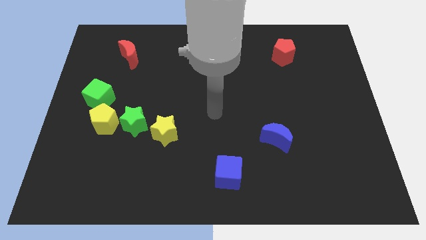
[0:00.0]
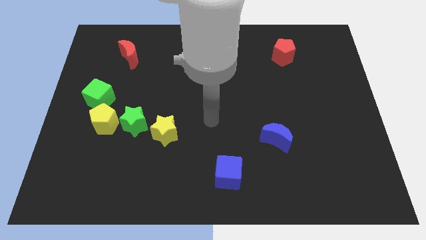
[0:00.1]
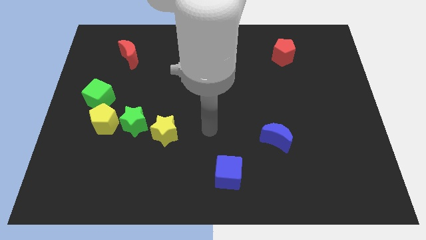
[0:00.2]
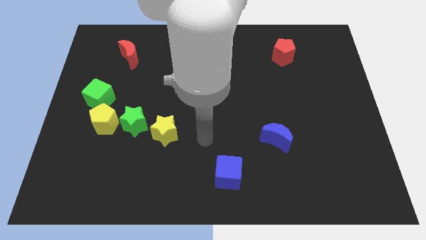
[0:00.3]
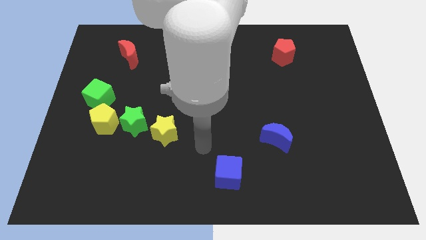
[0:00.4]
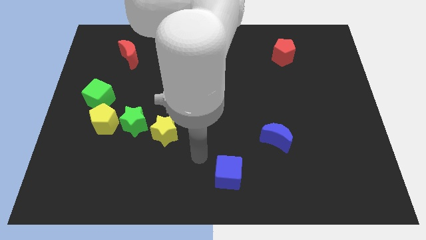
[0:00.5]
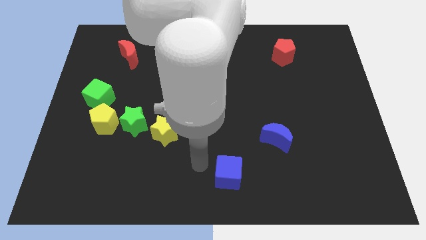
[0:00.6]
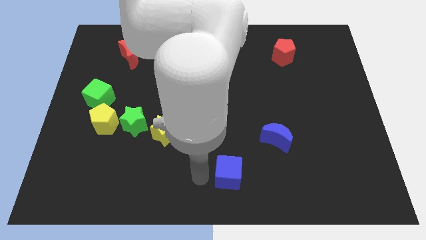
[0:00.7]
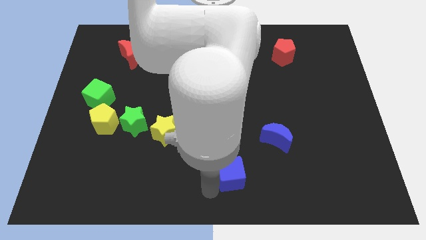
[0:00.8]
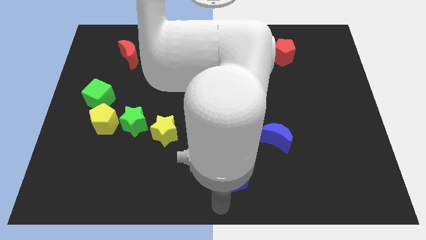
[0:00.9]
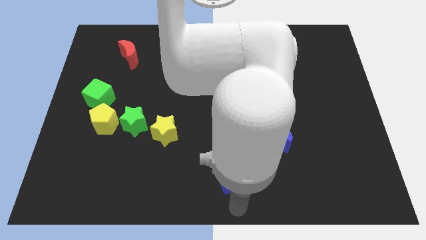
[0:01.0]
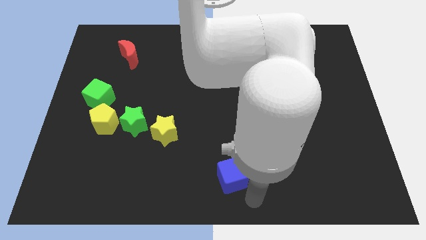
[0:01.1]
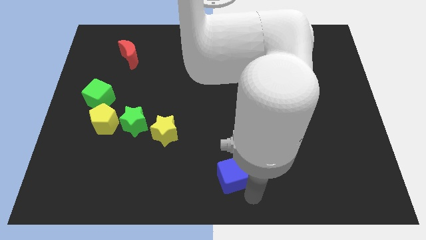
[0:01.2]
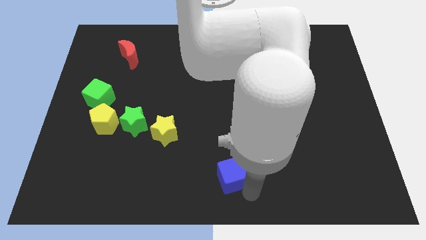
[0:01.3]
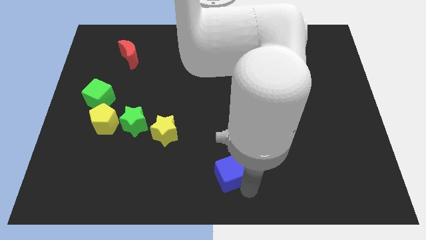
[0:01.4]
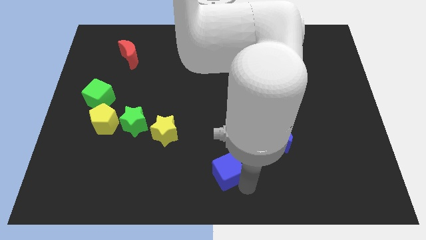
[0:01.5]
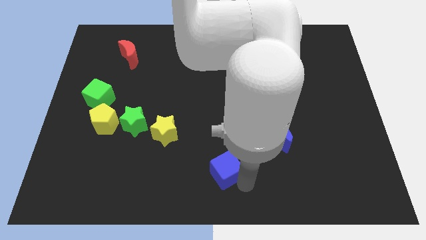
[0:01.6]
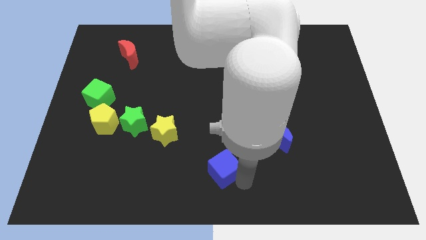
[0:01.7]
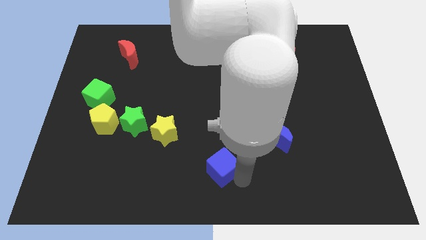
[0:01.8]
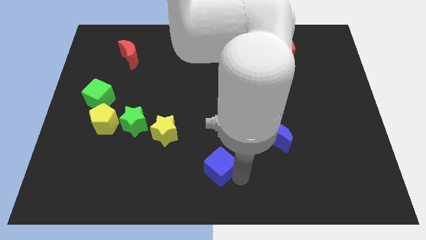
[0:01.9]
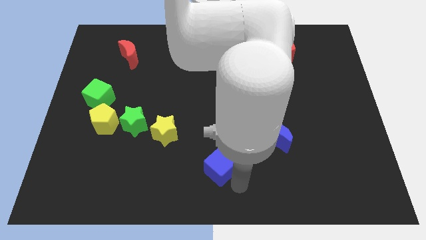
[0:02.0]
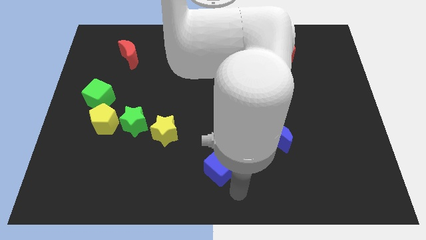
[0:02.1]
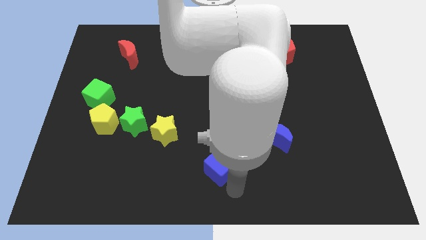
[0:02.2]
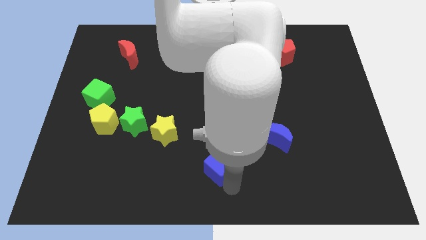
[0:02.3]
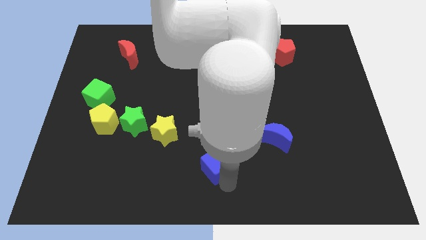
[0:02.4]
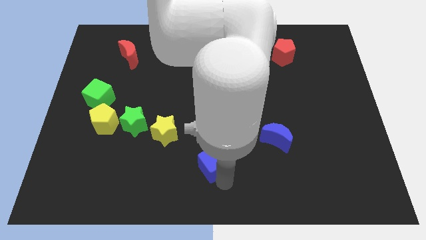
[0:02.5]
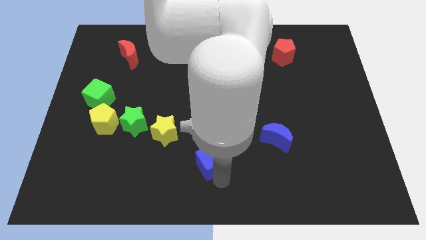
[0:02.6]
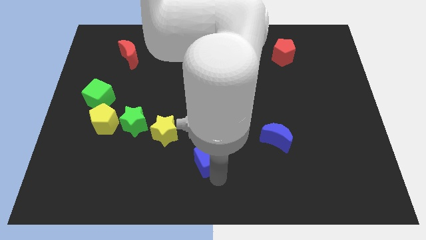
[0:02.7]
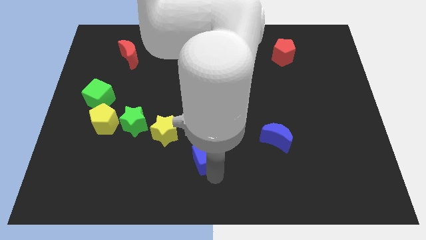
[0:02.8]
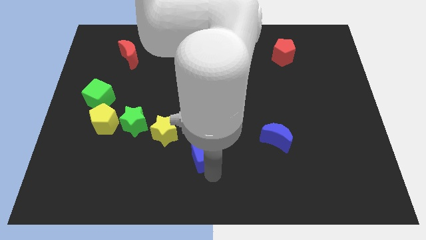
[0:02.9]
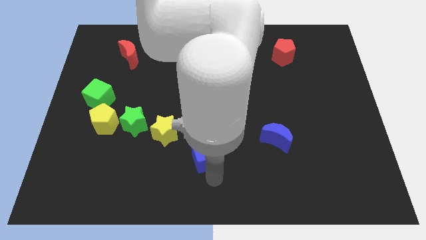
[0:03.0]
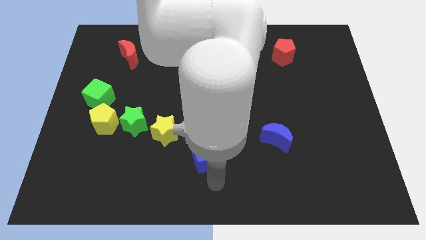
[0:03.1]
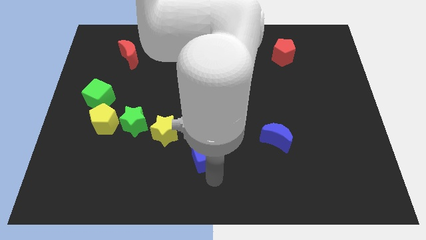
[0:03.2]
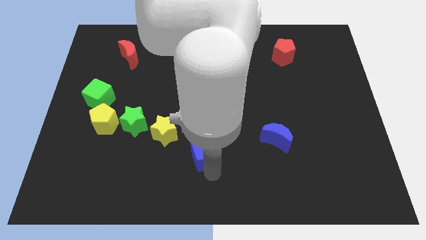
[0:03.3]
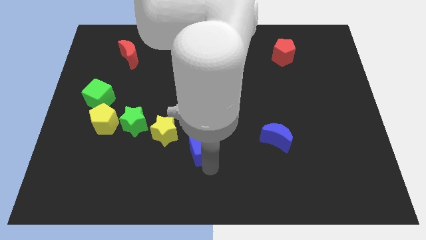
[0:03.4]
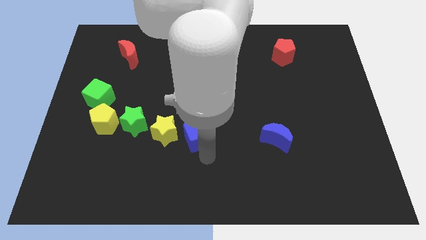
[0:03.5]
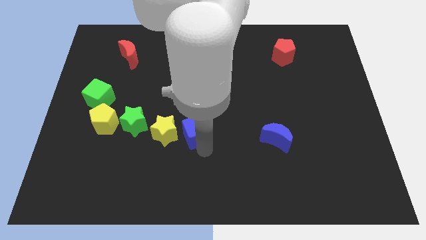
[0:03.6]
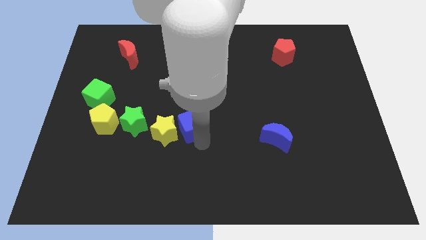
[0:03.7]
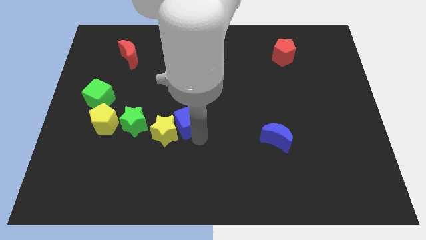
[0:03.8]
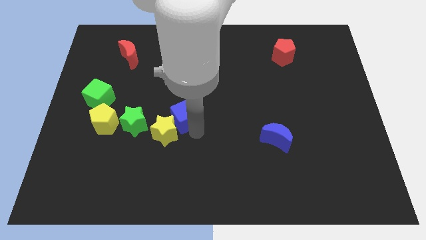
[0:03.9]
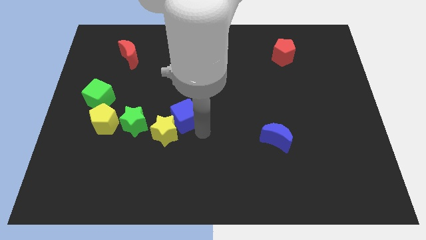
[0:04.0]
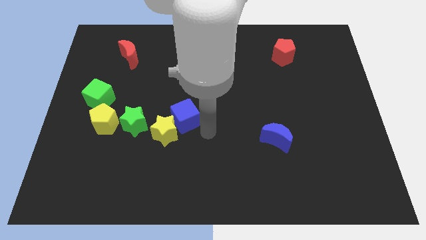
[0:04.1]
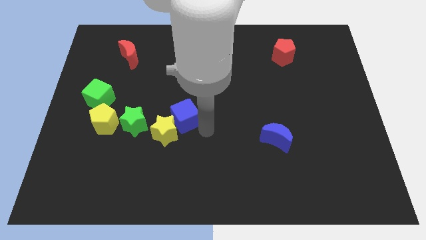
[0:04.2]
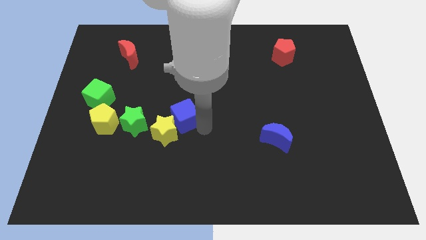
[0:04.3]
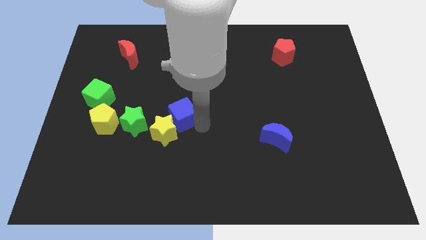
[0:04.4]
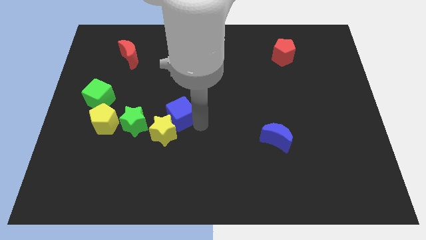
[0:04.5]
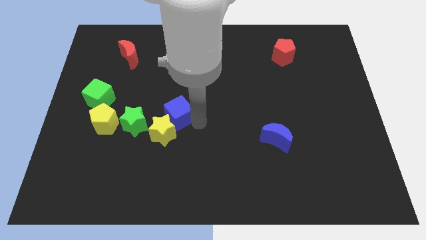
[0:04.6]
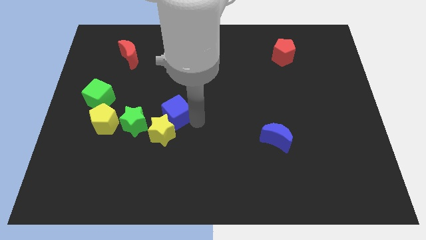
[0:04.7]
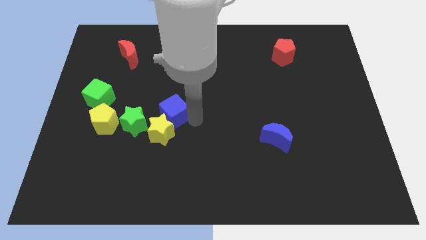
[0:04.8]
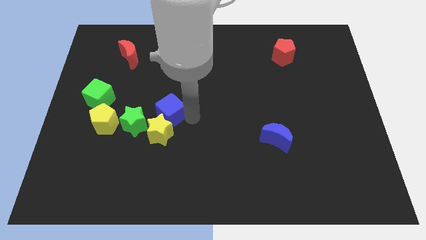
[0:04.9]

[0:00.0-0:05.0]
slide the blue cube upwards and then to the left

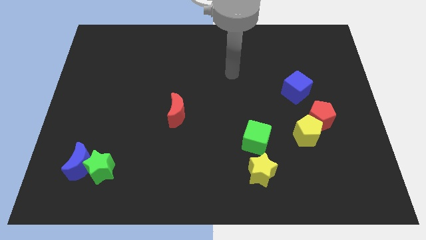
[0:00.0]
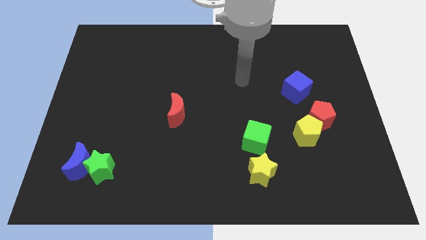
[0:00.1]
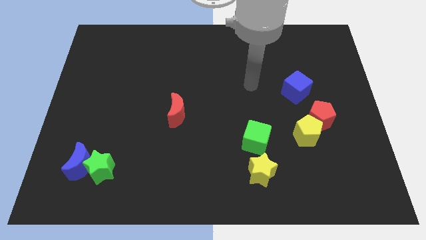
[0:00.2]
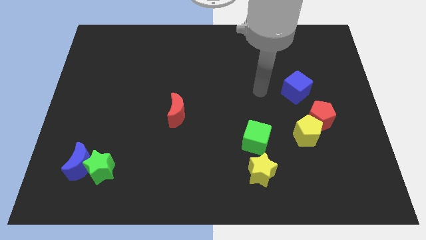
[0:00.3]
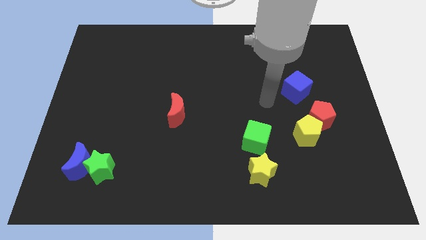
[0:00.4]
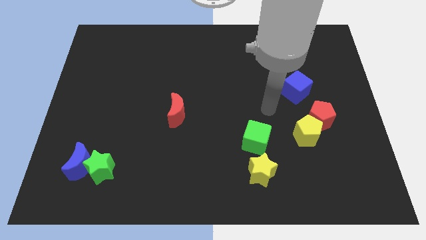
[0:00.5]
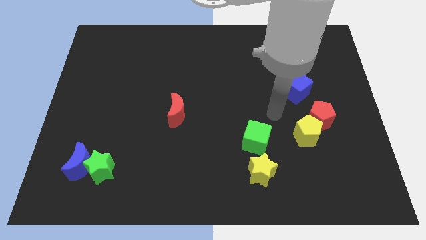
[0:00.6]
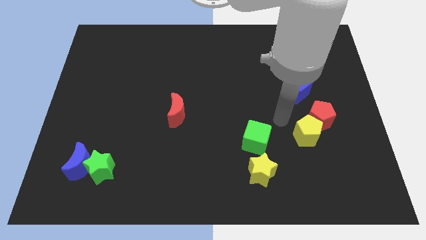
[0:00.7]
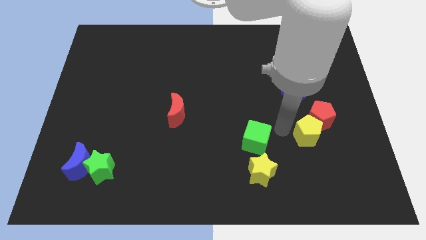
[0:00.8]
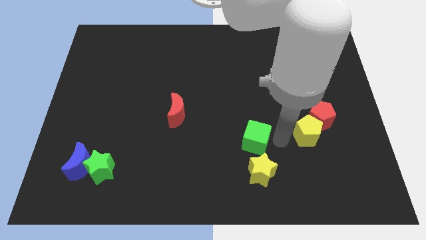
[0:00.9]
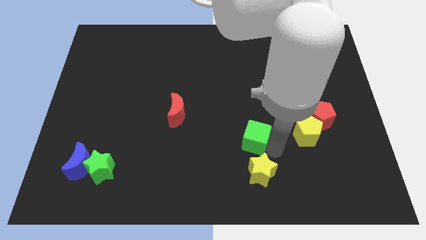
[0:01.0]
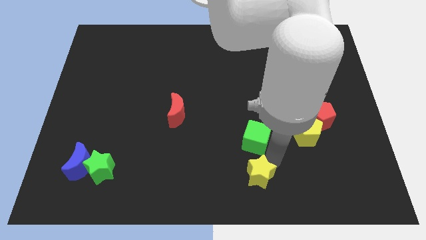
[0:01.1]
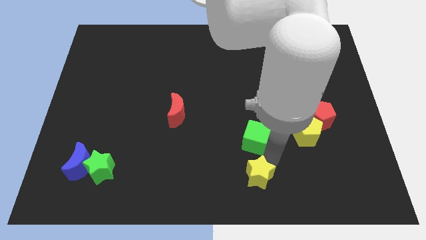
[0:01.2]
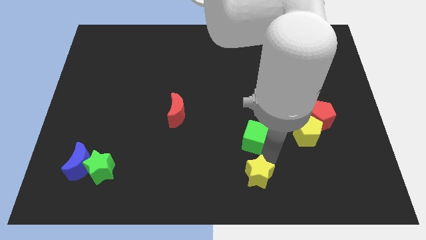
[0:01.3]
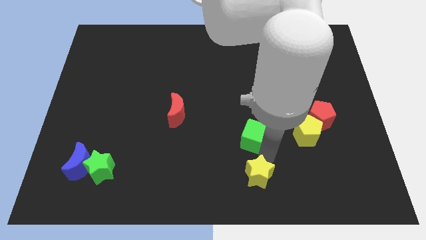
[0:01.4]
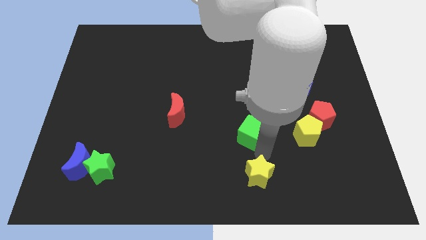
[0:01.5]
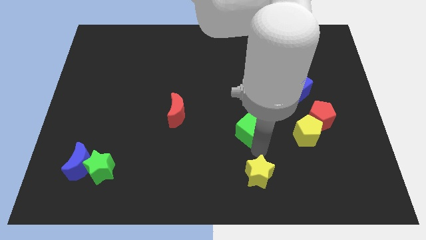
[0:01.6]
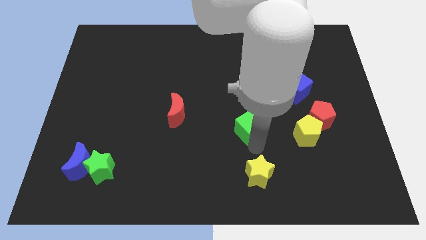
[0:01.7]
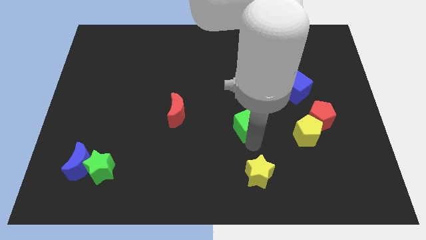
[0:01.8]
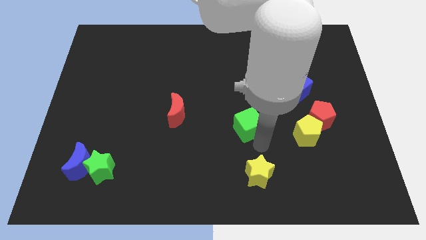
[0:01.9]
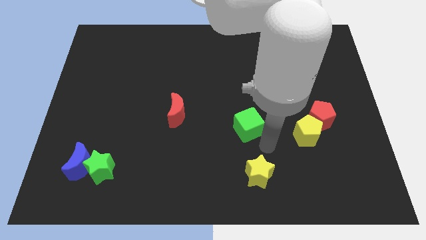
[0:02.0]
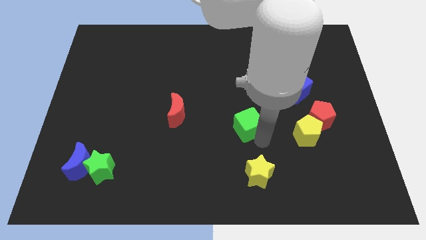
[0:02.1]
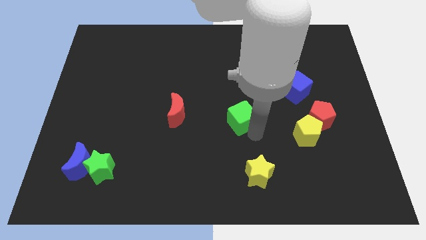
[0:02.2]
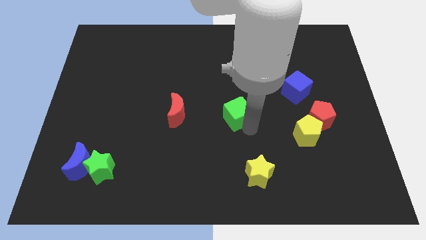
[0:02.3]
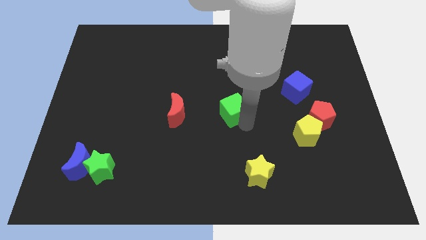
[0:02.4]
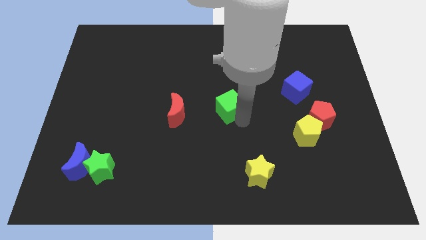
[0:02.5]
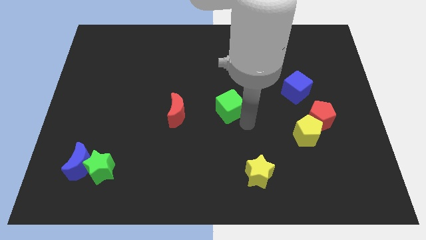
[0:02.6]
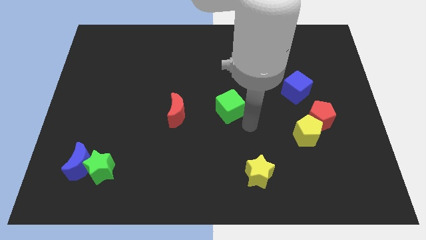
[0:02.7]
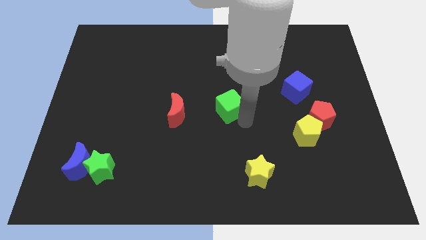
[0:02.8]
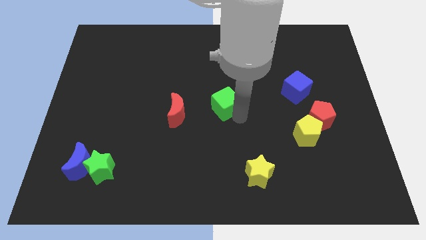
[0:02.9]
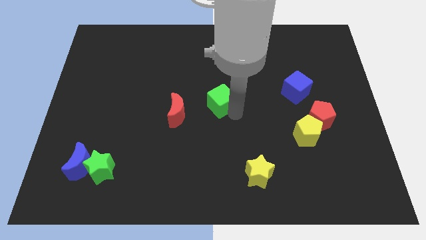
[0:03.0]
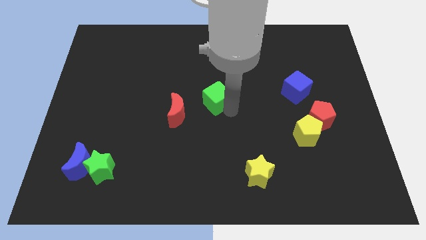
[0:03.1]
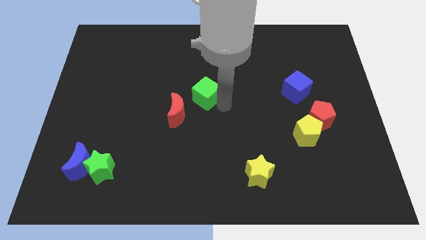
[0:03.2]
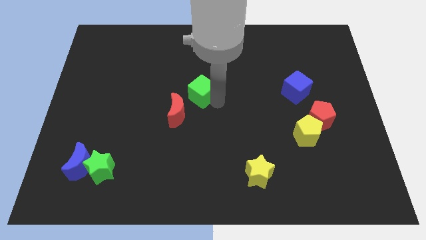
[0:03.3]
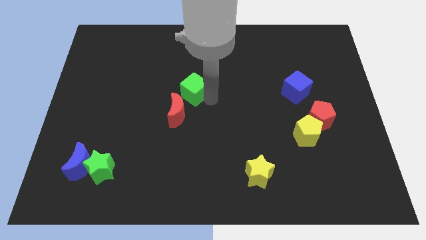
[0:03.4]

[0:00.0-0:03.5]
move the green cube upwards and left diagonally
